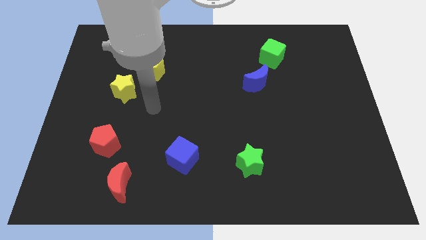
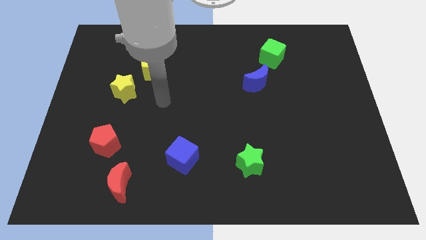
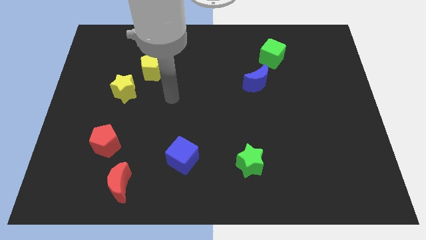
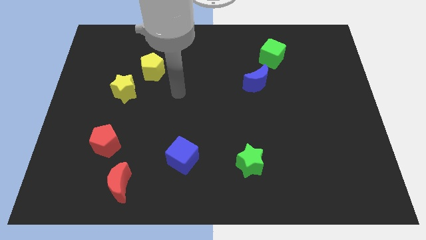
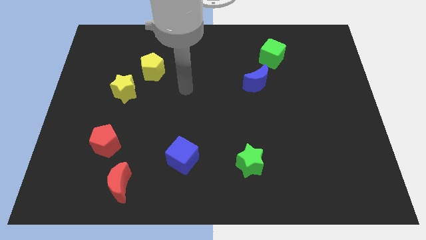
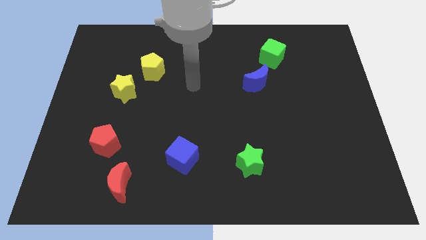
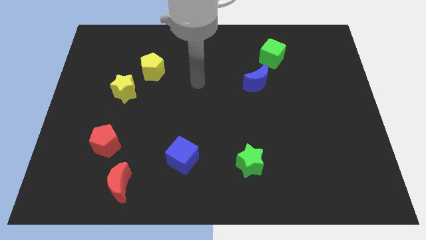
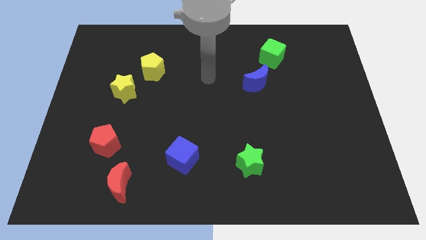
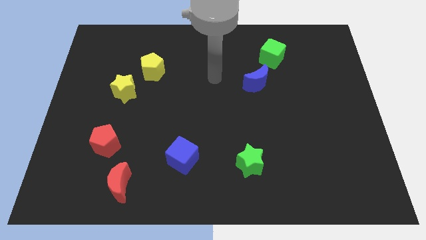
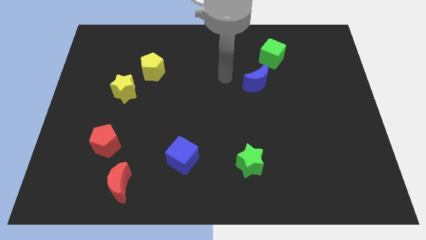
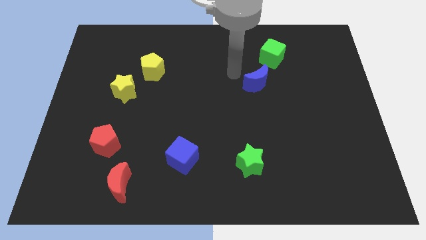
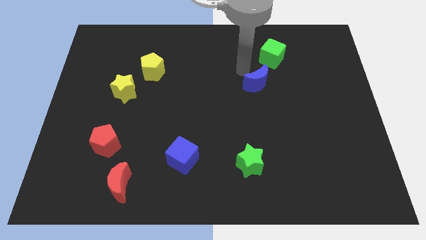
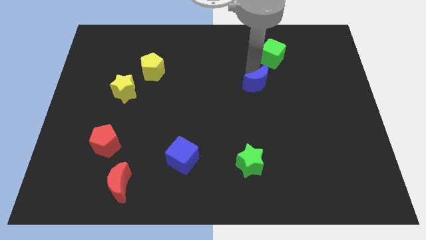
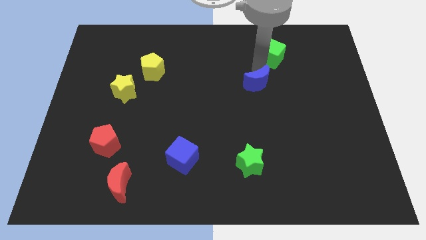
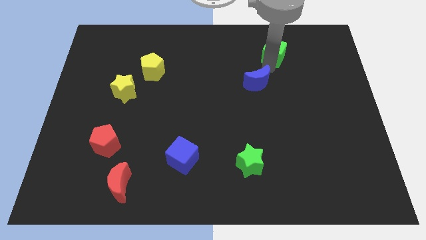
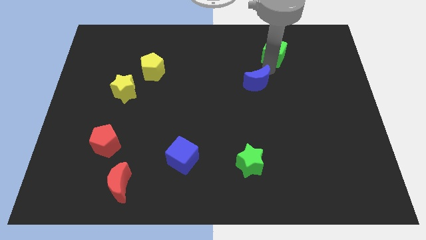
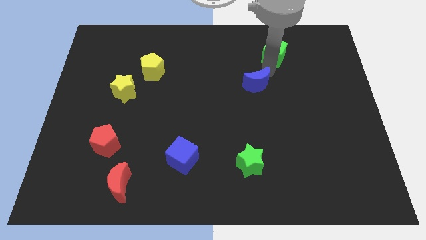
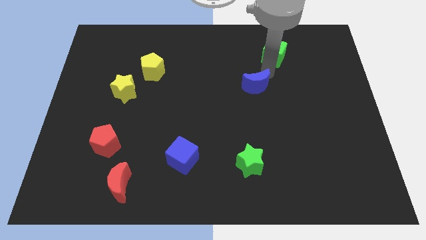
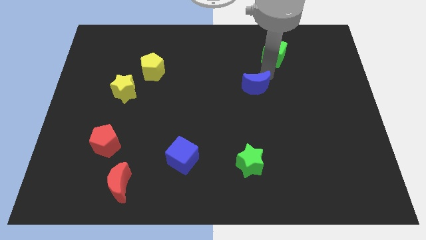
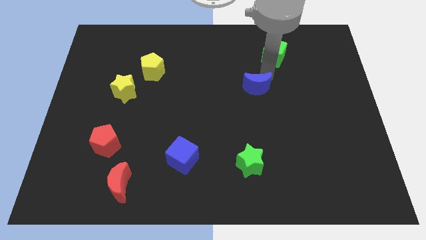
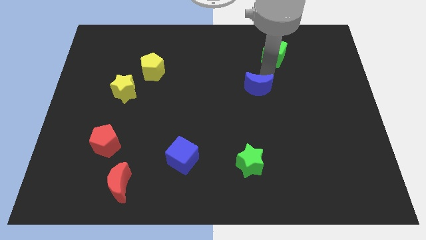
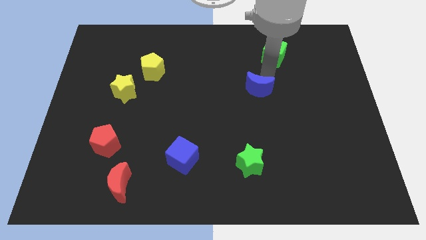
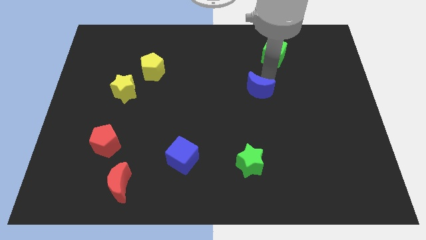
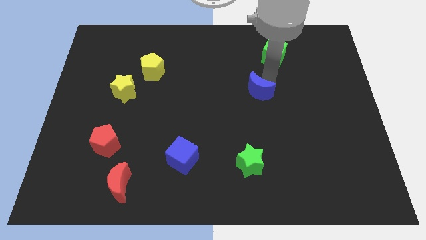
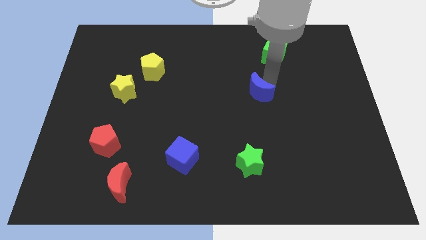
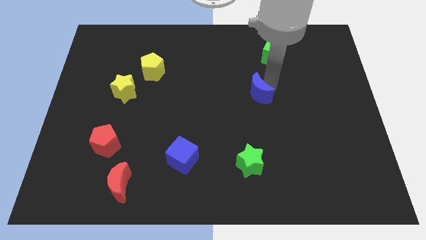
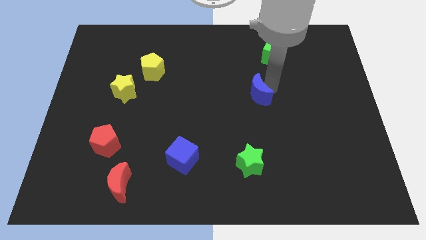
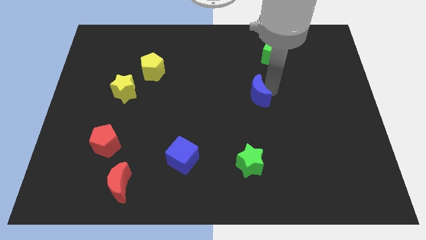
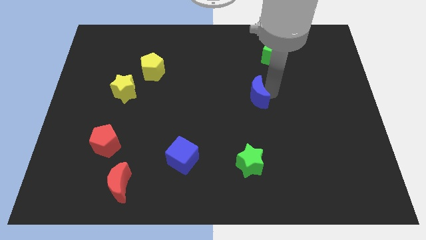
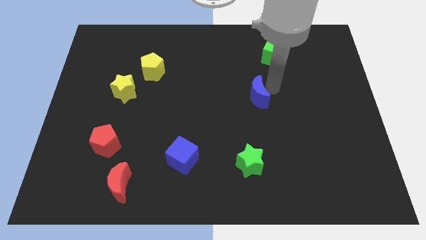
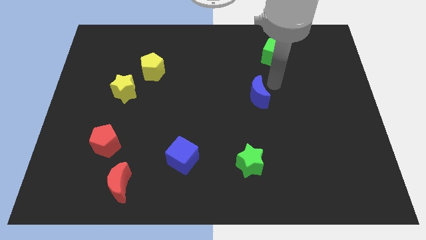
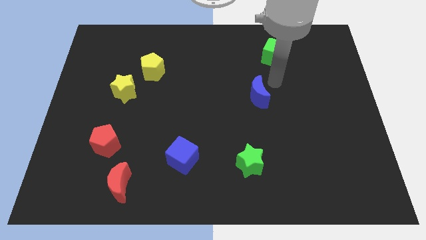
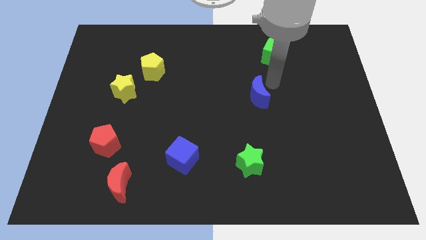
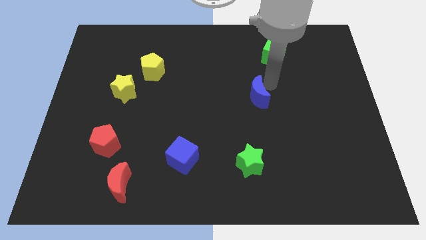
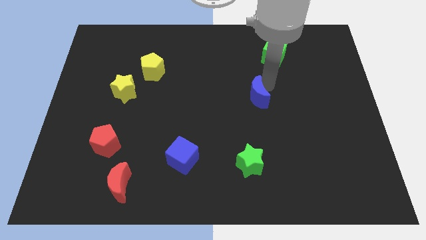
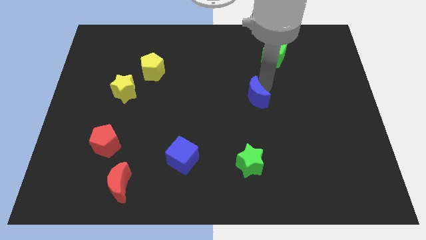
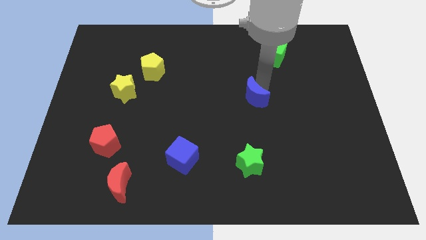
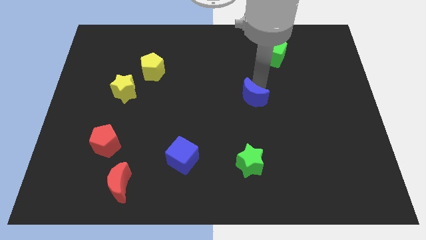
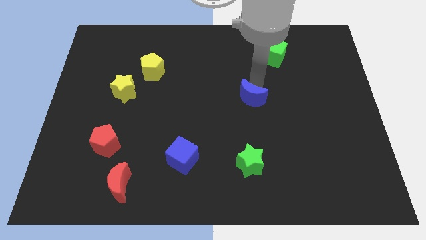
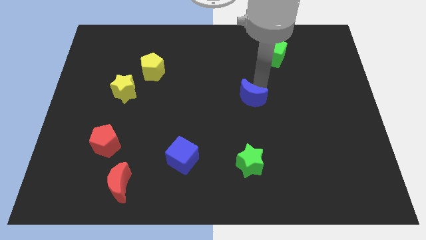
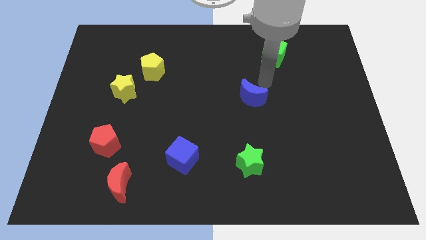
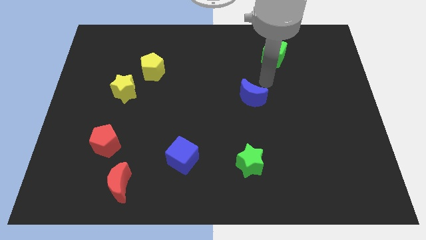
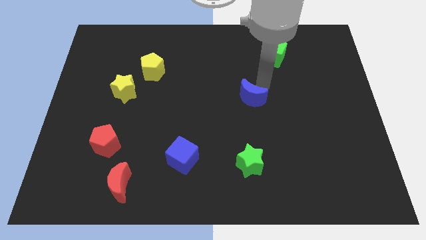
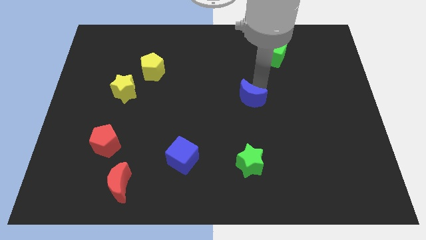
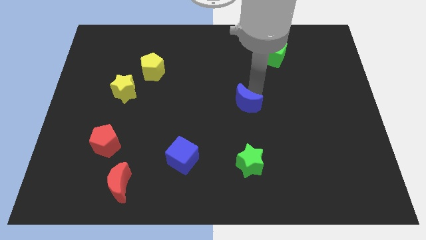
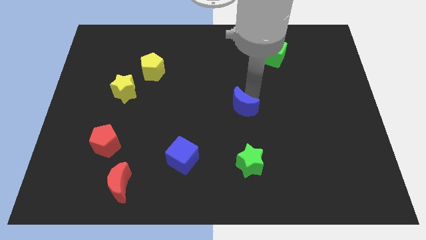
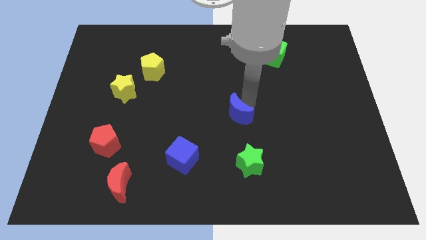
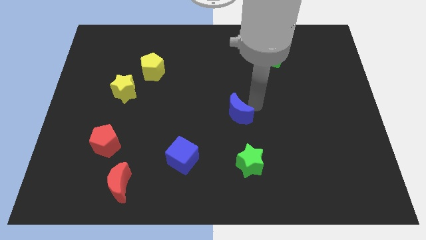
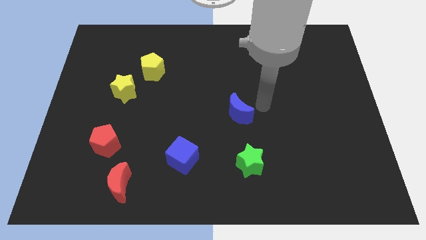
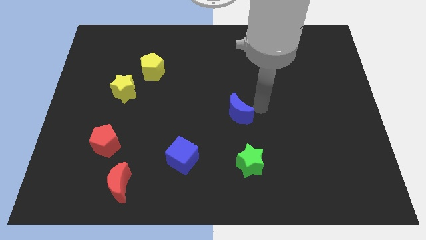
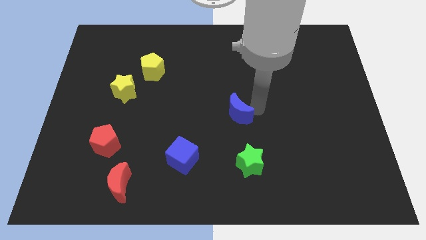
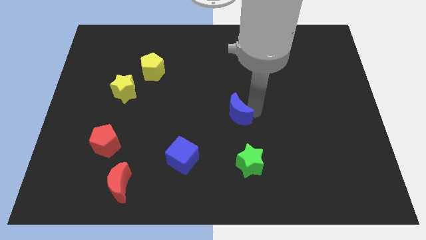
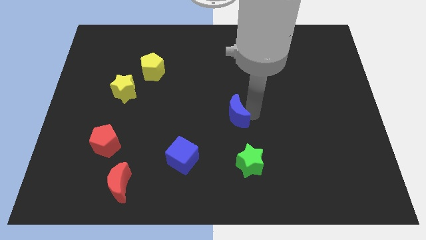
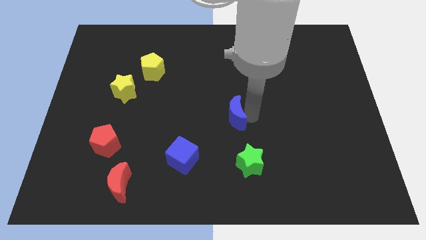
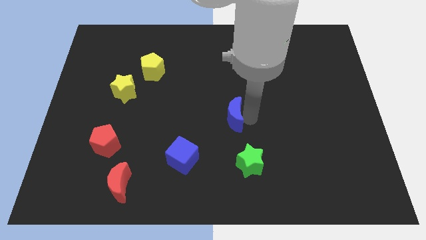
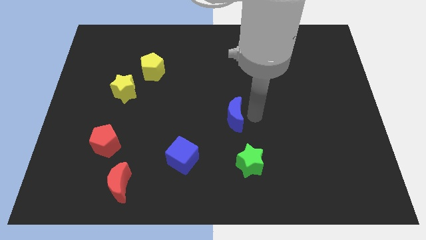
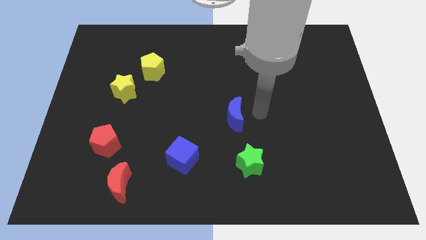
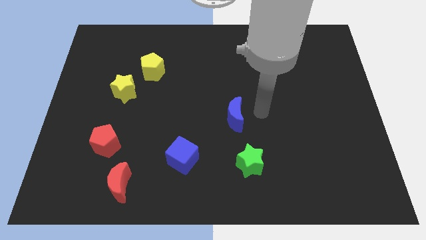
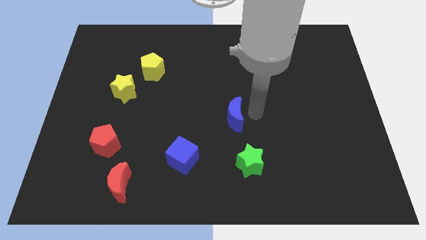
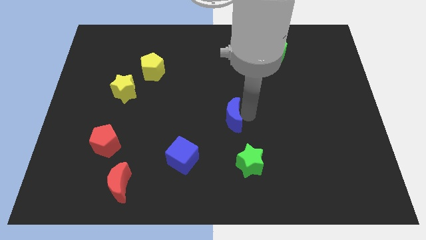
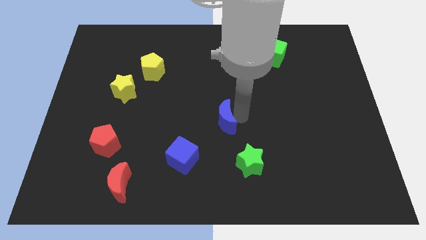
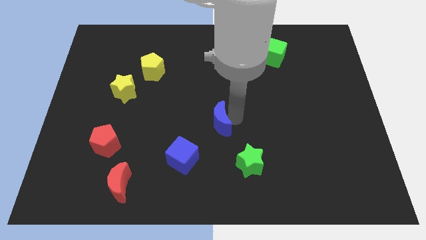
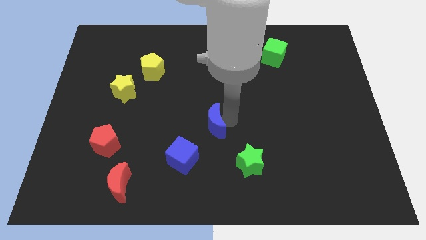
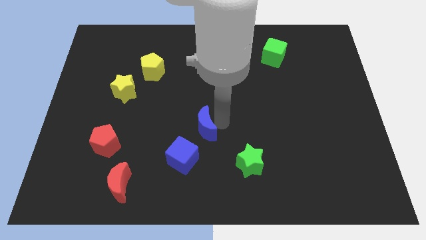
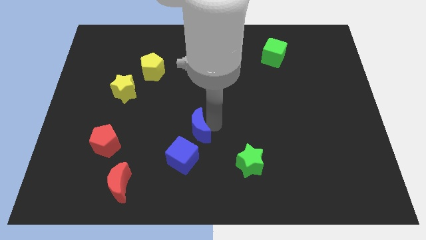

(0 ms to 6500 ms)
slide the blue moon diagonally down and to the left

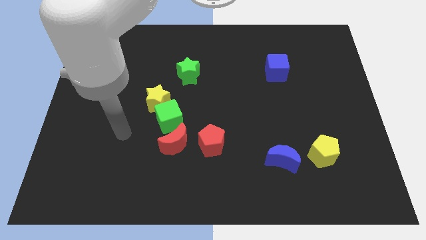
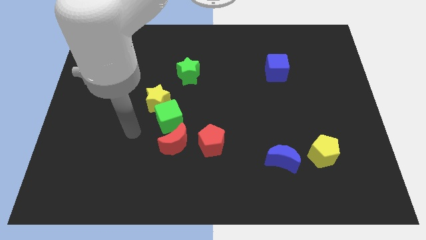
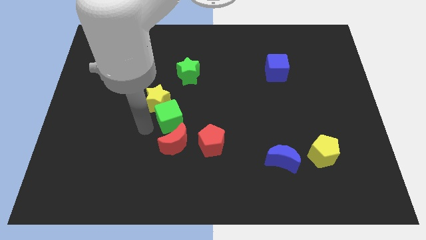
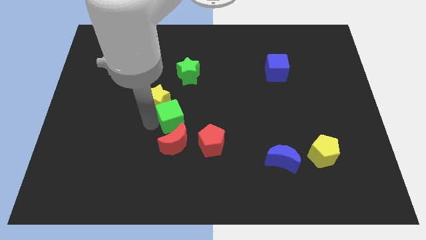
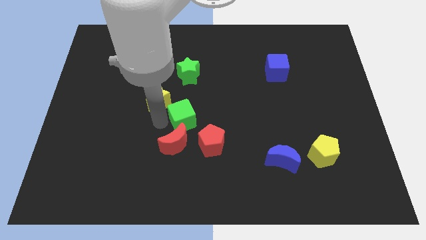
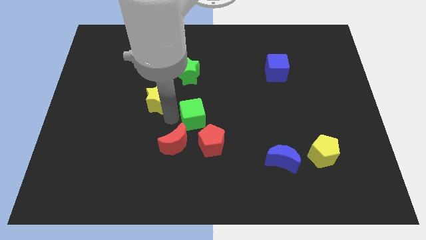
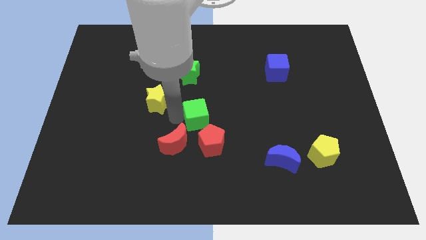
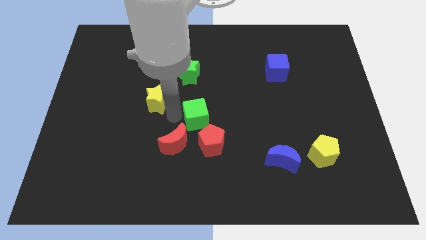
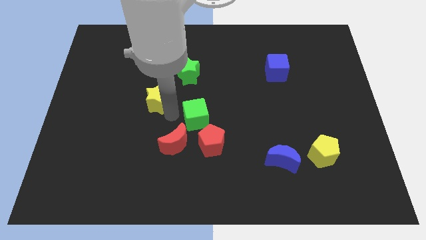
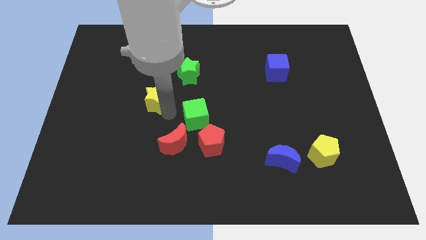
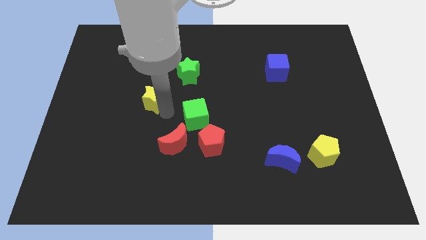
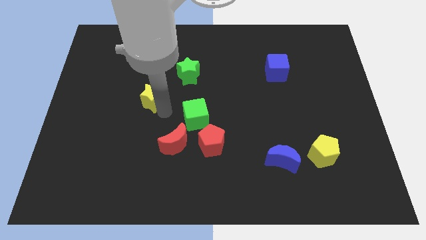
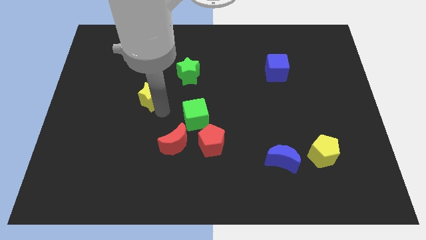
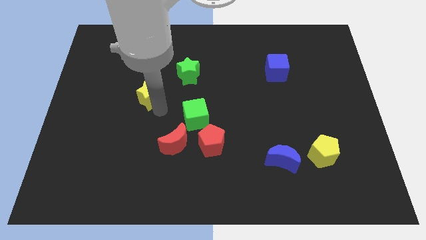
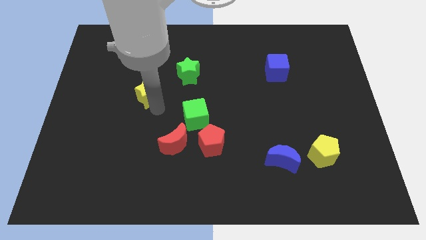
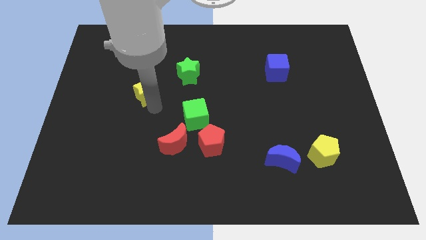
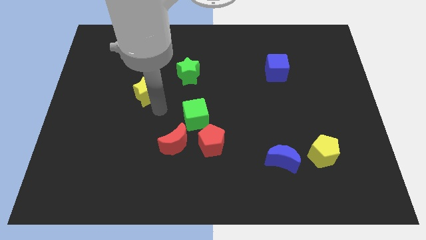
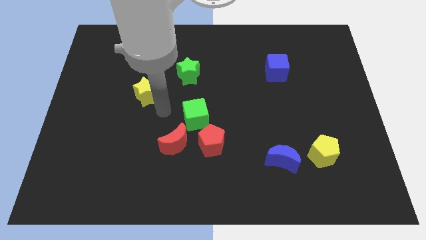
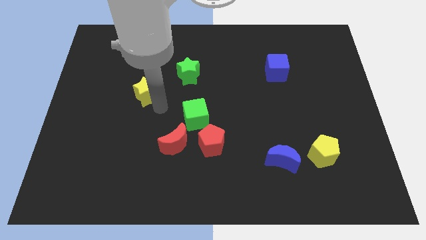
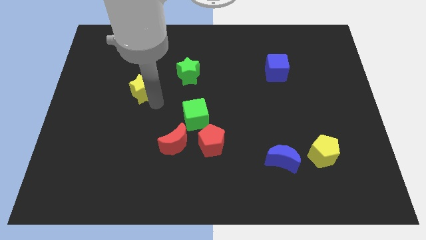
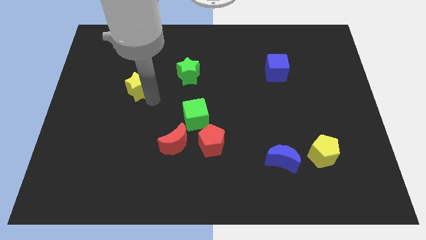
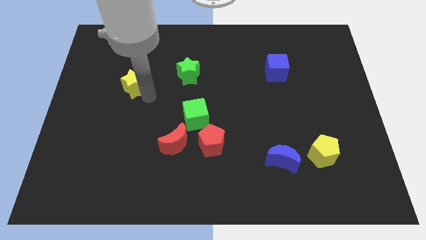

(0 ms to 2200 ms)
slightly slide the yellow star upwards and left diagonally
